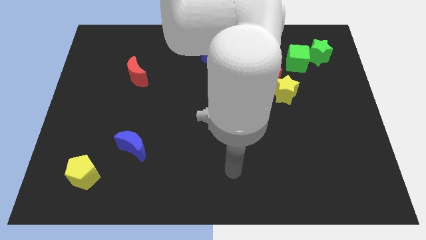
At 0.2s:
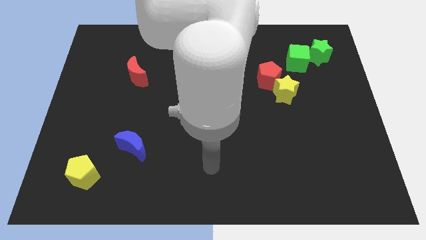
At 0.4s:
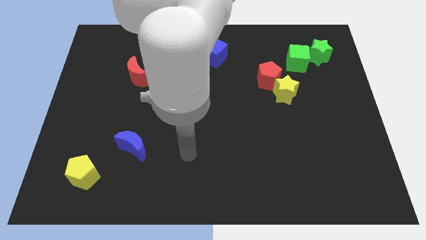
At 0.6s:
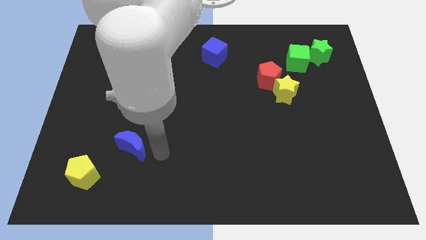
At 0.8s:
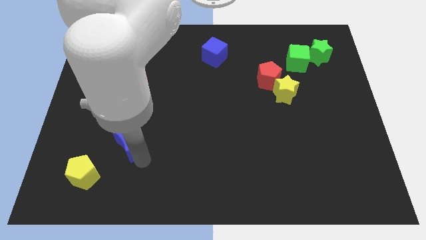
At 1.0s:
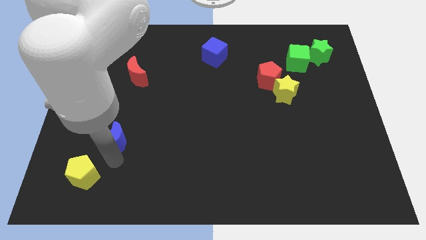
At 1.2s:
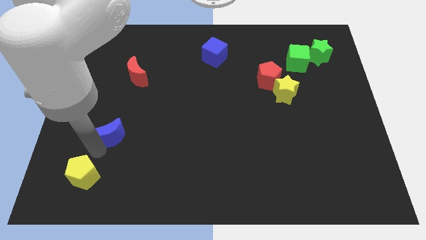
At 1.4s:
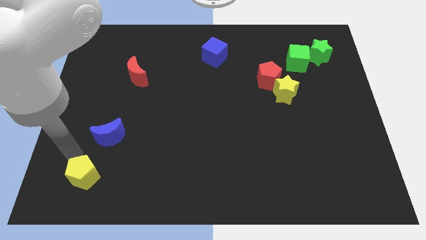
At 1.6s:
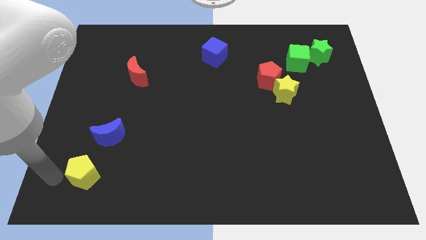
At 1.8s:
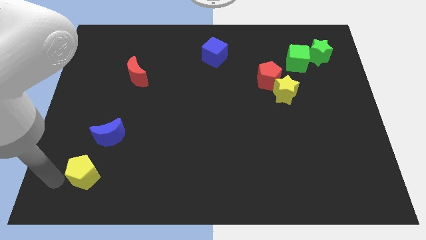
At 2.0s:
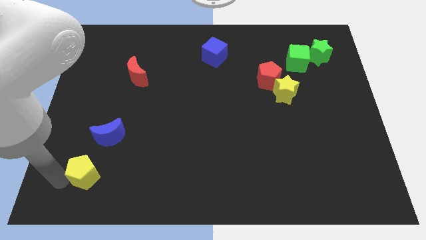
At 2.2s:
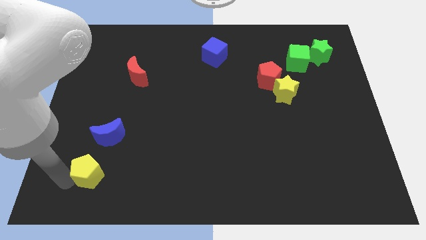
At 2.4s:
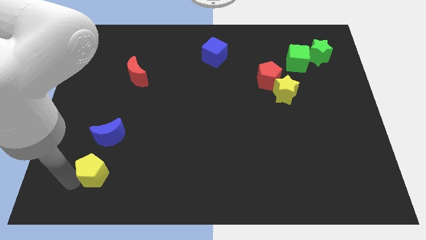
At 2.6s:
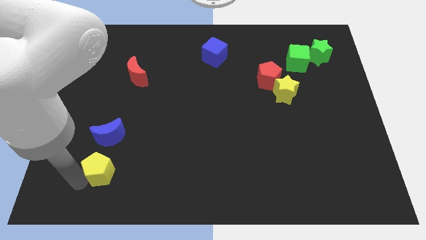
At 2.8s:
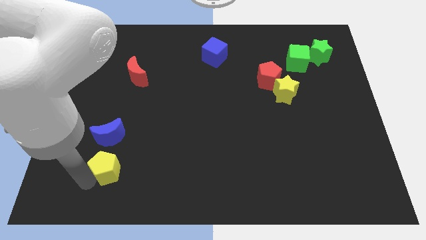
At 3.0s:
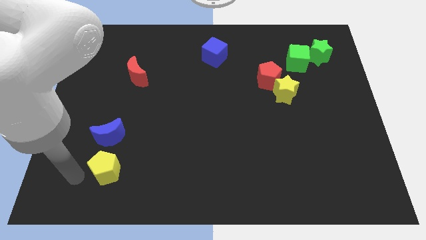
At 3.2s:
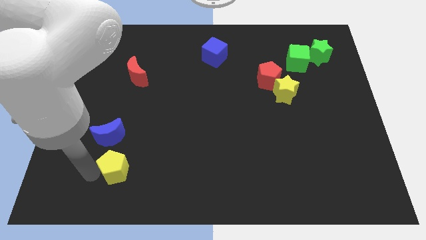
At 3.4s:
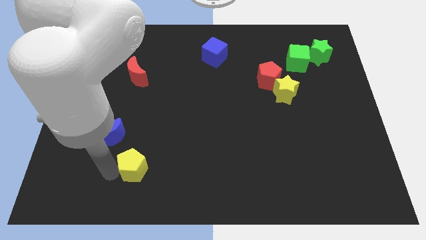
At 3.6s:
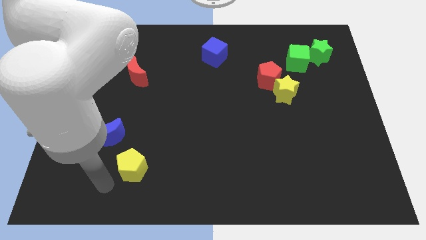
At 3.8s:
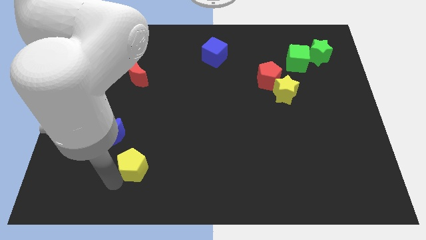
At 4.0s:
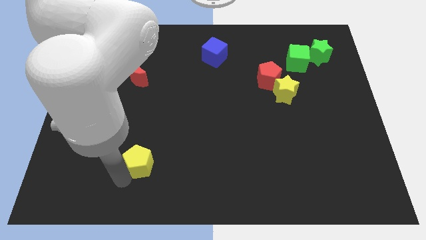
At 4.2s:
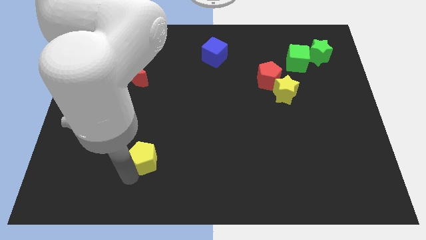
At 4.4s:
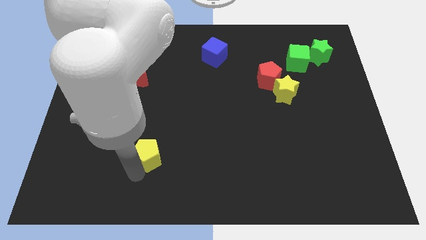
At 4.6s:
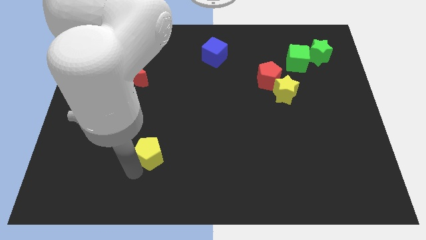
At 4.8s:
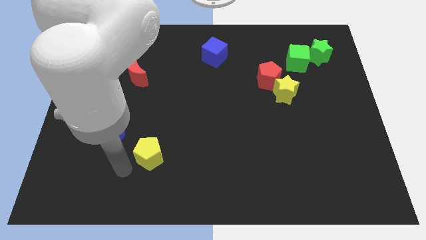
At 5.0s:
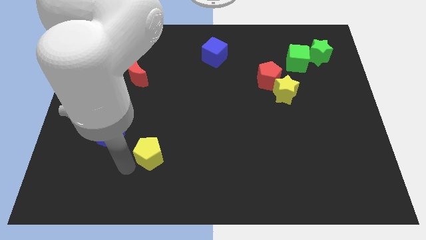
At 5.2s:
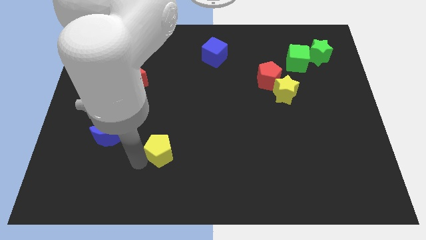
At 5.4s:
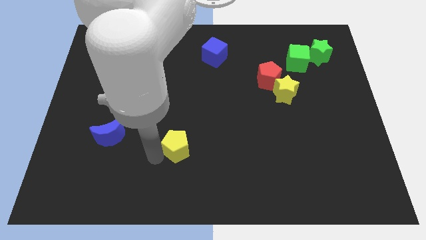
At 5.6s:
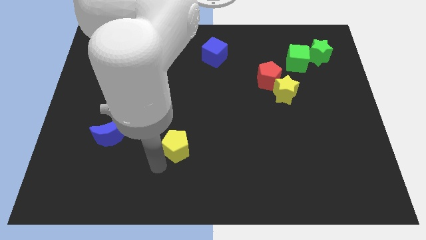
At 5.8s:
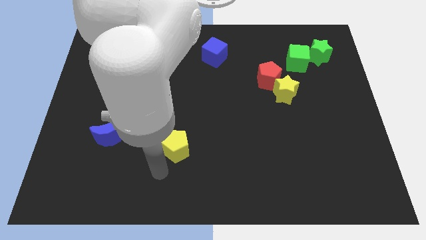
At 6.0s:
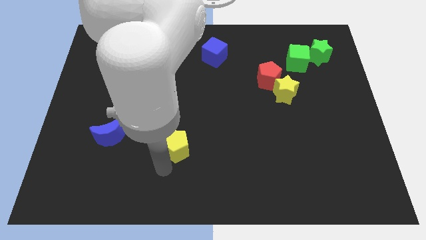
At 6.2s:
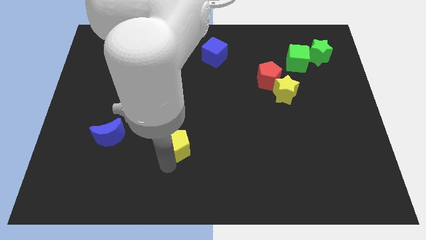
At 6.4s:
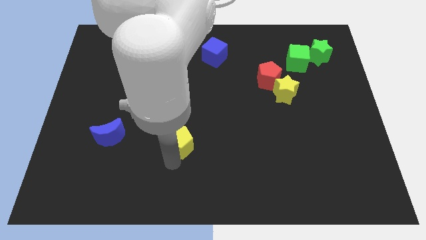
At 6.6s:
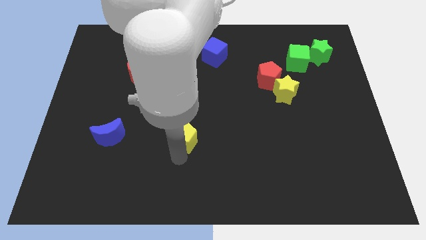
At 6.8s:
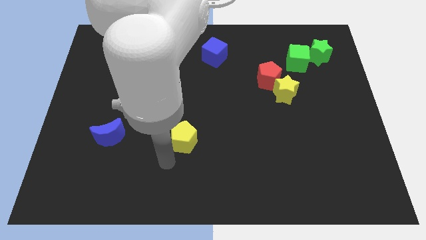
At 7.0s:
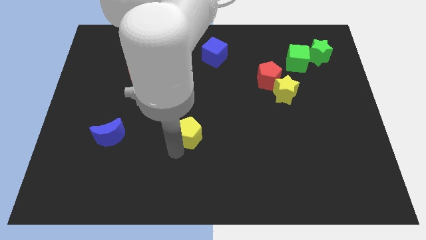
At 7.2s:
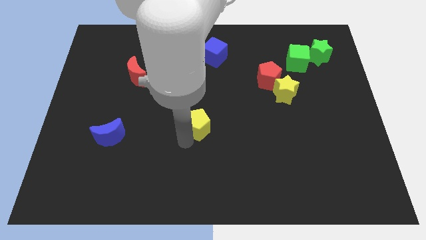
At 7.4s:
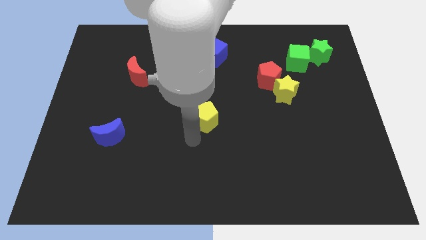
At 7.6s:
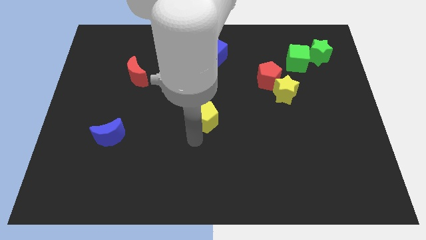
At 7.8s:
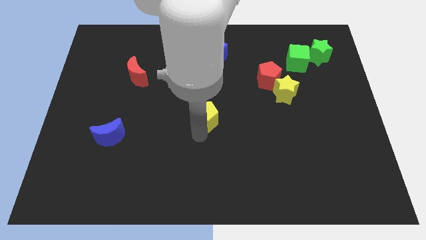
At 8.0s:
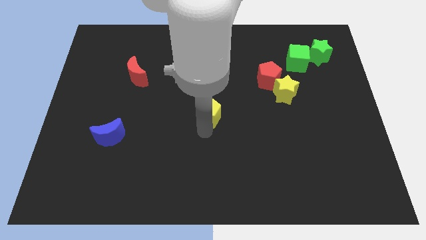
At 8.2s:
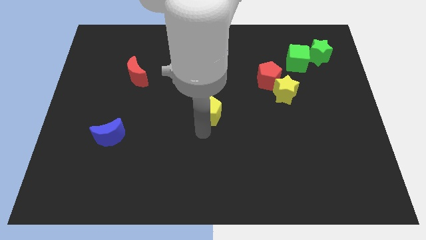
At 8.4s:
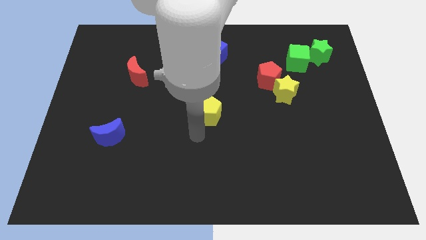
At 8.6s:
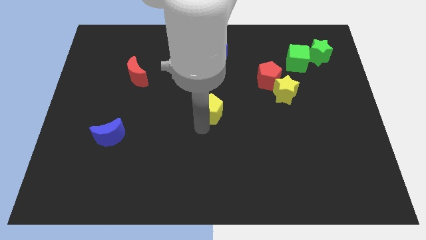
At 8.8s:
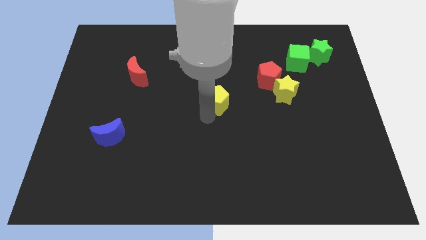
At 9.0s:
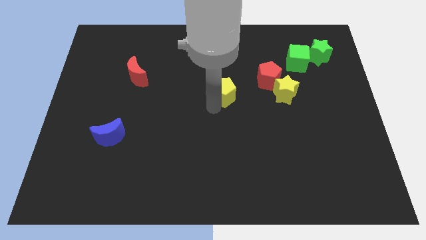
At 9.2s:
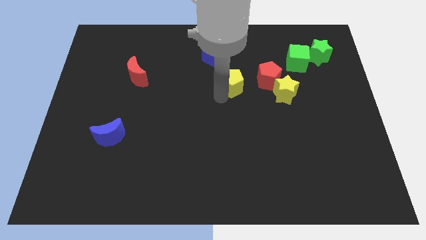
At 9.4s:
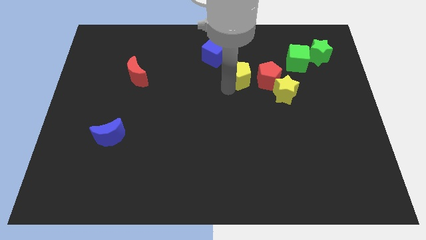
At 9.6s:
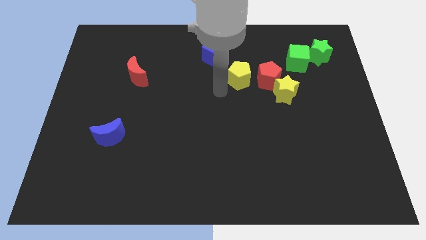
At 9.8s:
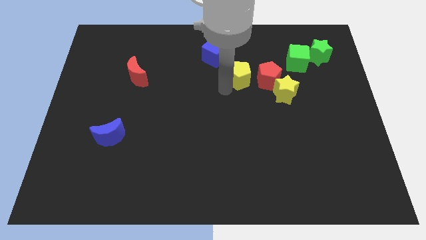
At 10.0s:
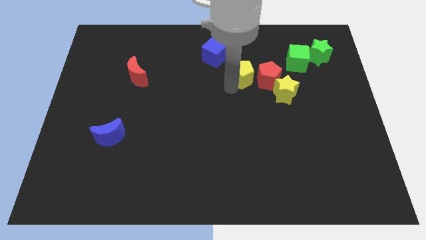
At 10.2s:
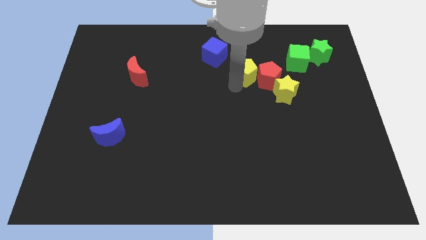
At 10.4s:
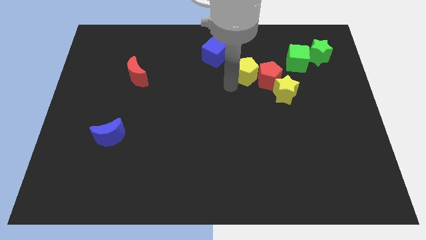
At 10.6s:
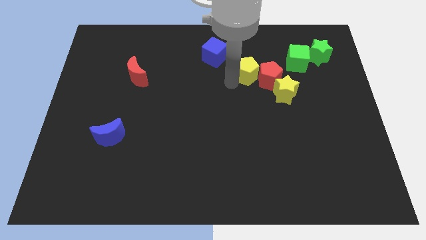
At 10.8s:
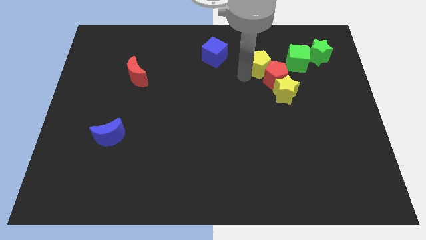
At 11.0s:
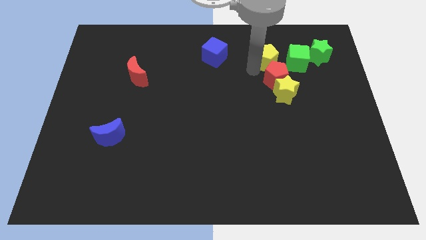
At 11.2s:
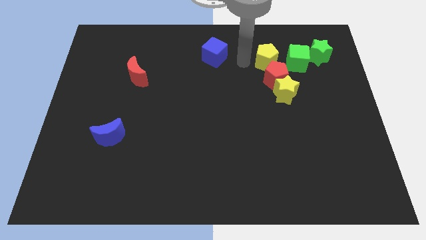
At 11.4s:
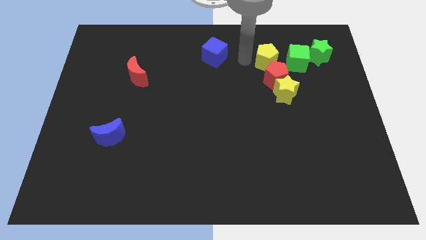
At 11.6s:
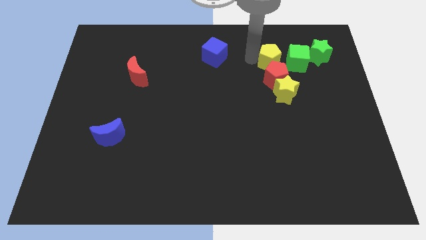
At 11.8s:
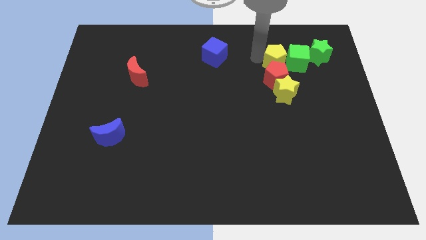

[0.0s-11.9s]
slide the yellow pentagon next to the green cube
